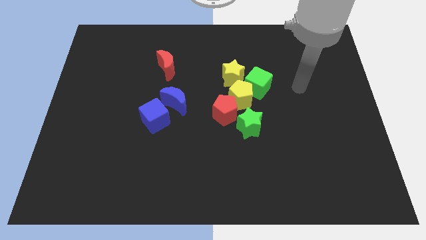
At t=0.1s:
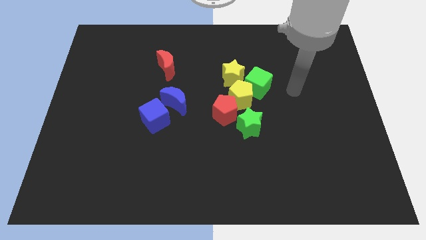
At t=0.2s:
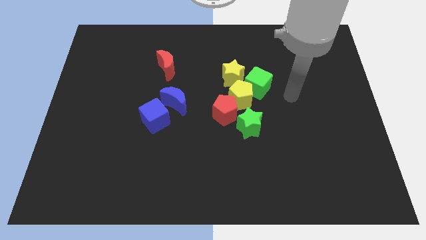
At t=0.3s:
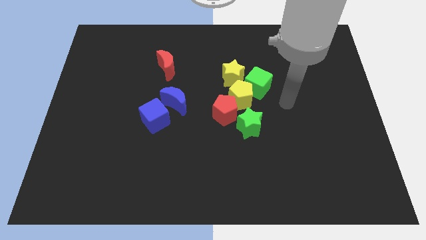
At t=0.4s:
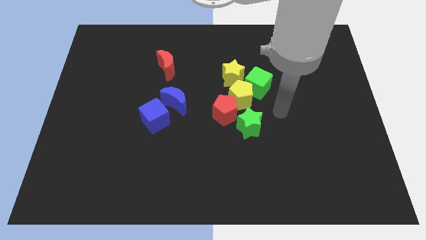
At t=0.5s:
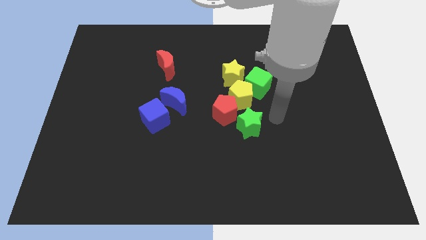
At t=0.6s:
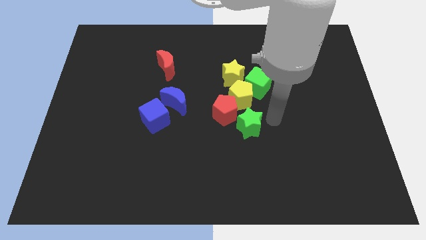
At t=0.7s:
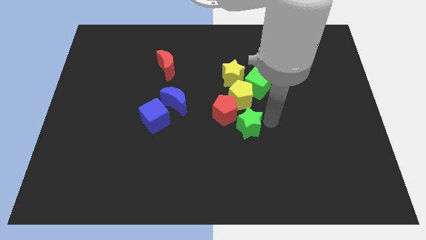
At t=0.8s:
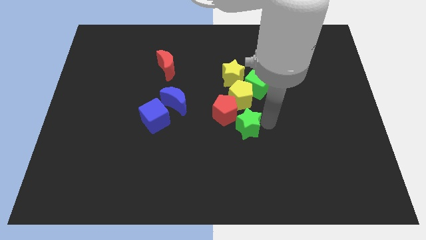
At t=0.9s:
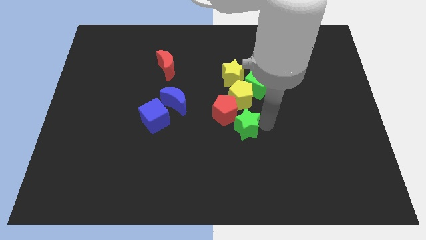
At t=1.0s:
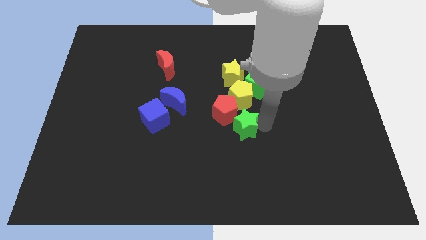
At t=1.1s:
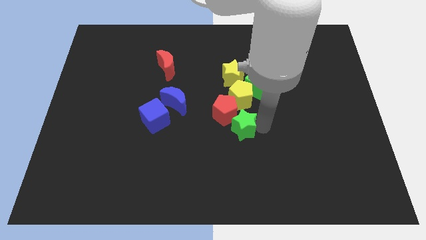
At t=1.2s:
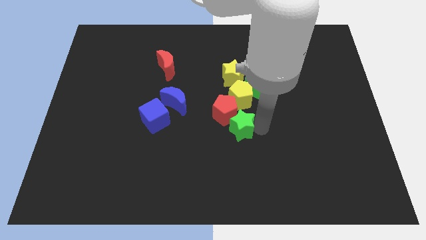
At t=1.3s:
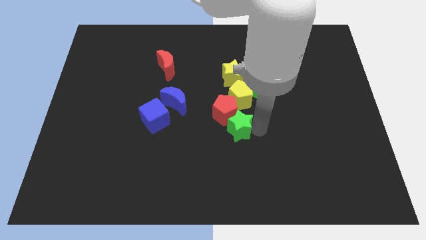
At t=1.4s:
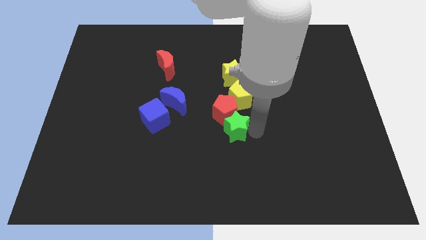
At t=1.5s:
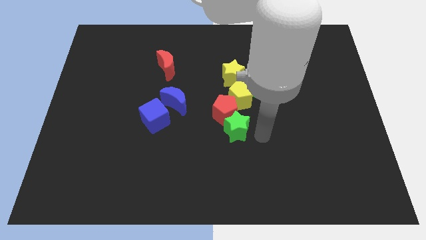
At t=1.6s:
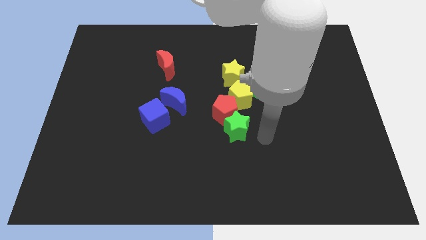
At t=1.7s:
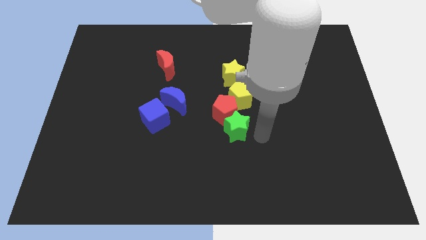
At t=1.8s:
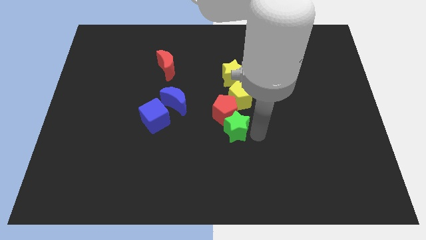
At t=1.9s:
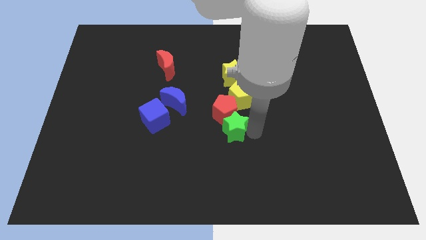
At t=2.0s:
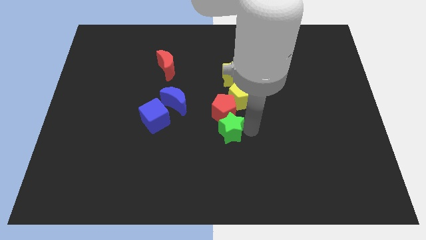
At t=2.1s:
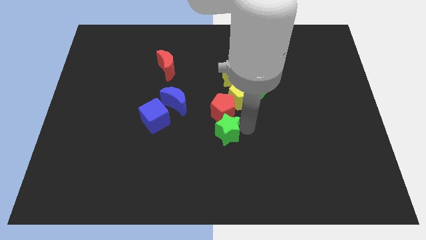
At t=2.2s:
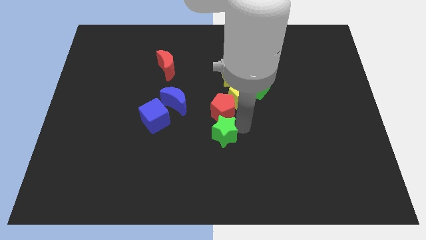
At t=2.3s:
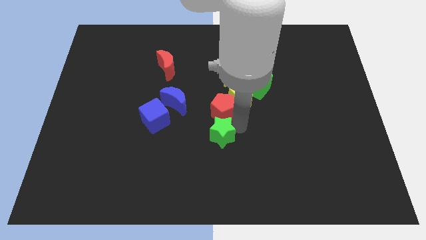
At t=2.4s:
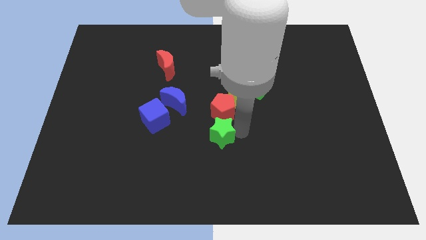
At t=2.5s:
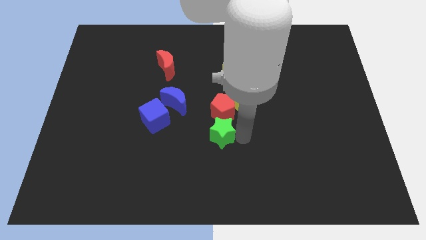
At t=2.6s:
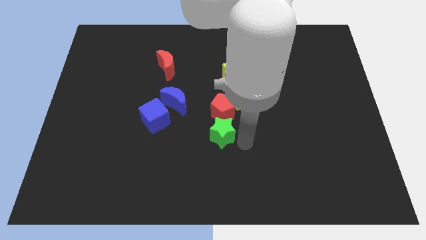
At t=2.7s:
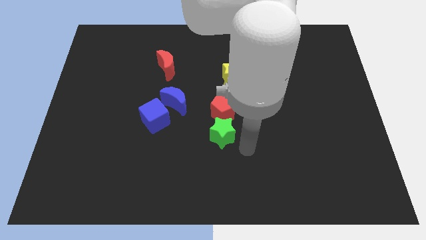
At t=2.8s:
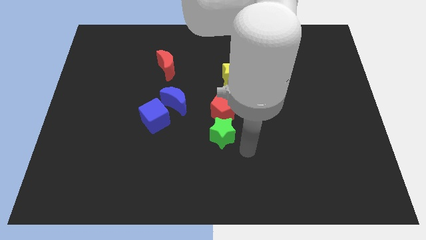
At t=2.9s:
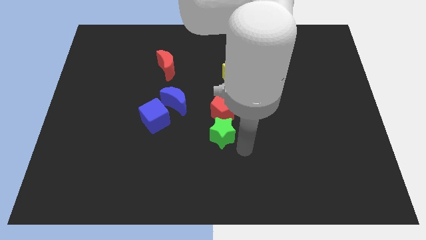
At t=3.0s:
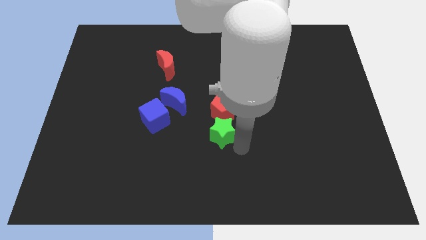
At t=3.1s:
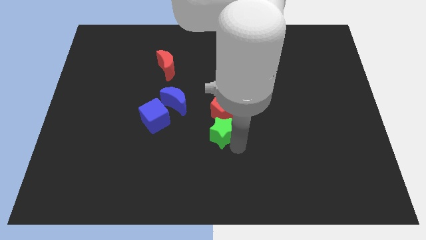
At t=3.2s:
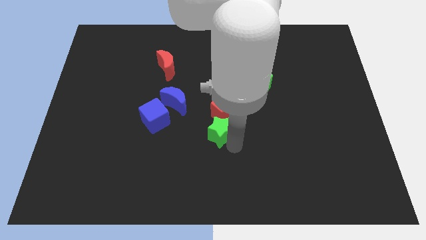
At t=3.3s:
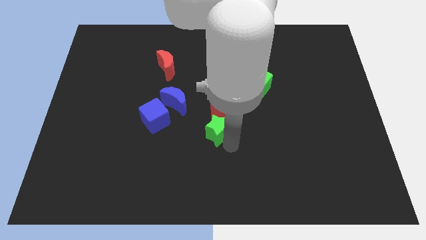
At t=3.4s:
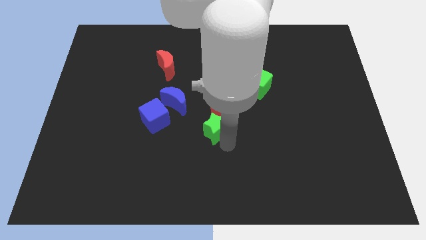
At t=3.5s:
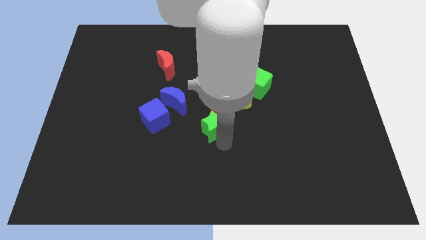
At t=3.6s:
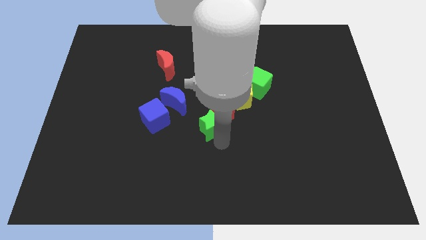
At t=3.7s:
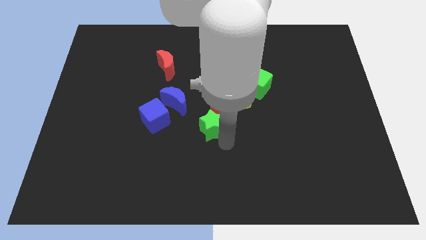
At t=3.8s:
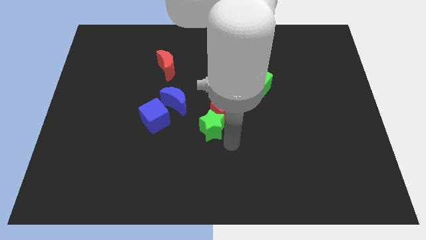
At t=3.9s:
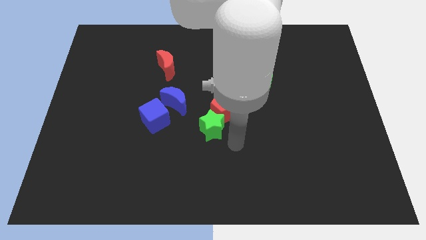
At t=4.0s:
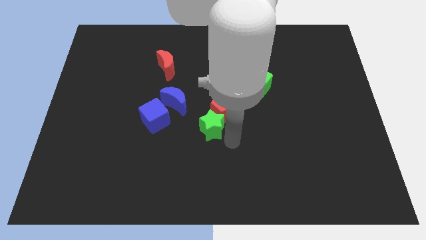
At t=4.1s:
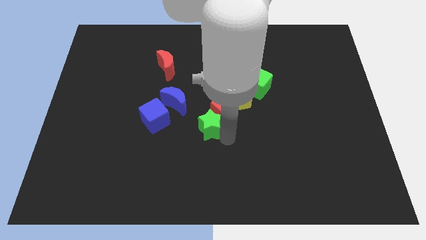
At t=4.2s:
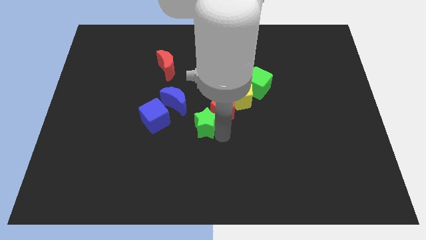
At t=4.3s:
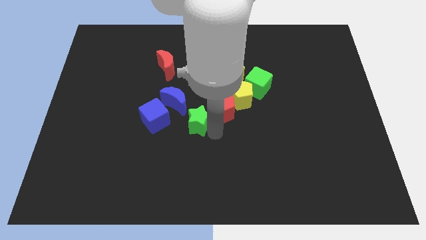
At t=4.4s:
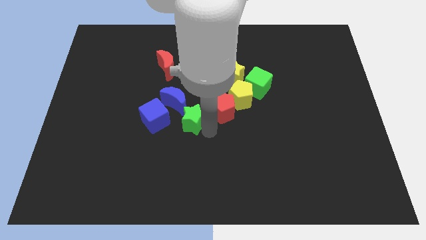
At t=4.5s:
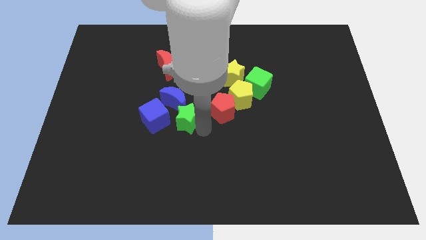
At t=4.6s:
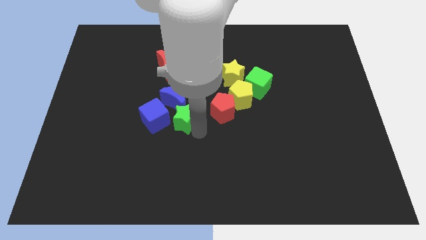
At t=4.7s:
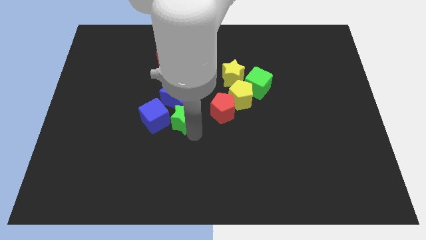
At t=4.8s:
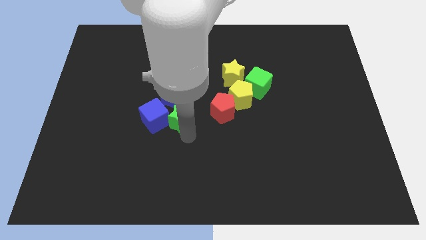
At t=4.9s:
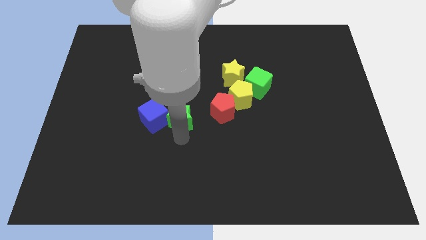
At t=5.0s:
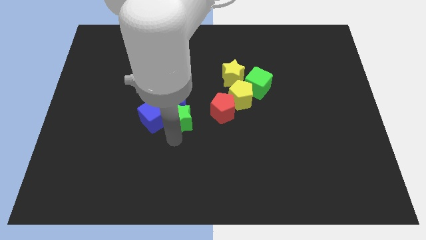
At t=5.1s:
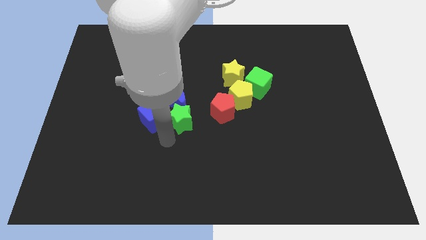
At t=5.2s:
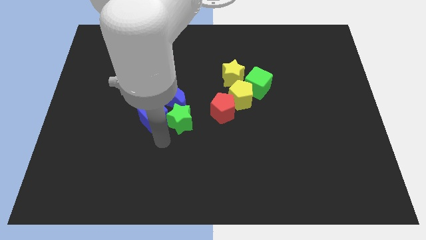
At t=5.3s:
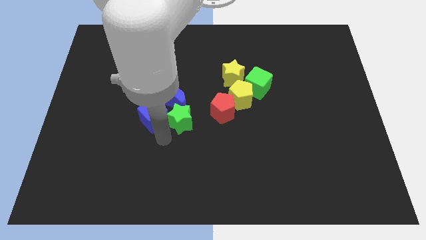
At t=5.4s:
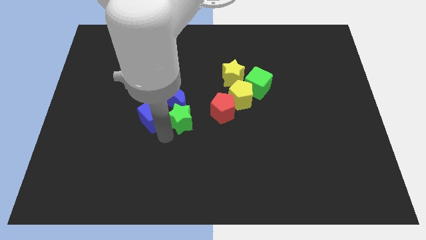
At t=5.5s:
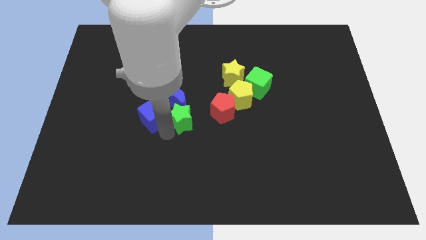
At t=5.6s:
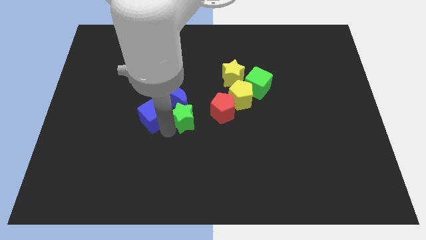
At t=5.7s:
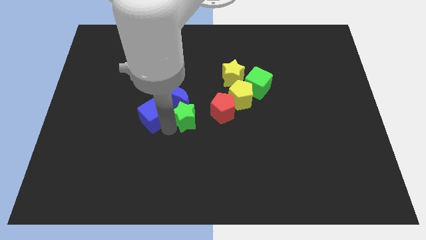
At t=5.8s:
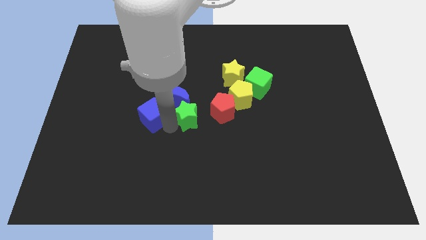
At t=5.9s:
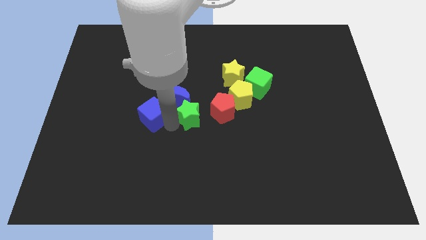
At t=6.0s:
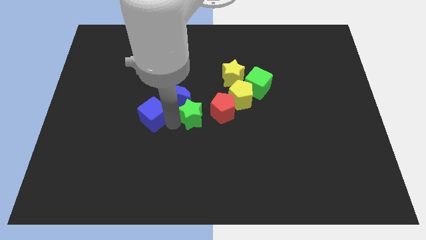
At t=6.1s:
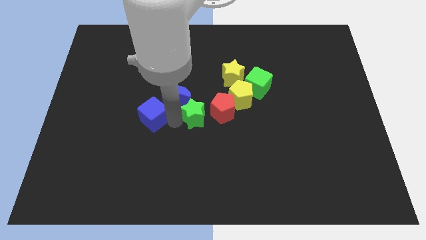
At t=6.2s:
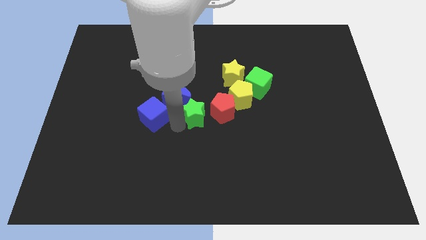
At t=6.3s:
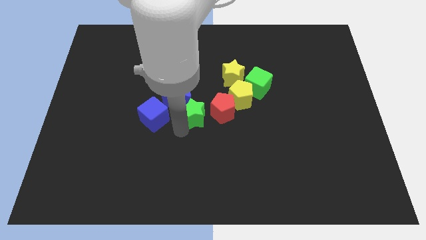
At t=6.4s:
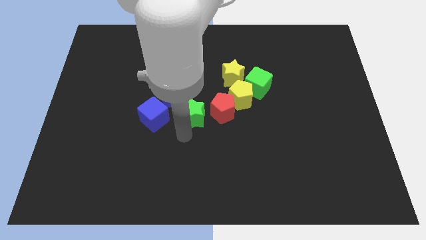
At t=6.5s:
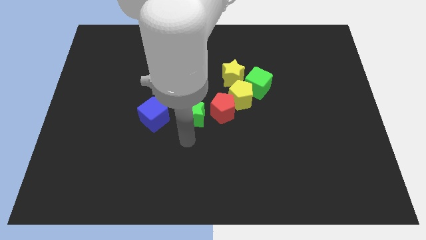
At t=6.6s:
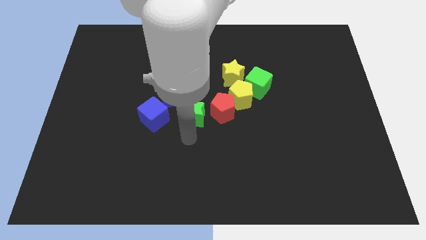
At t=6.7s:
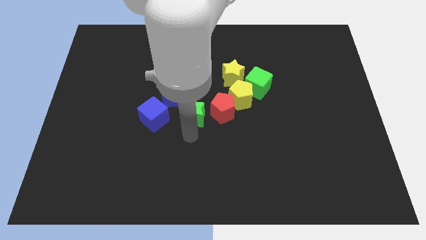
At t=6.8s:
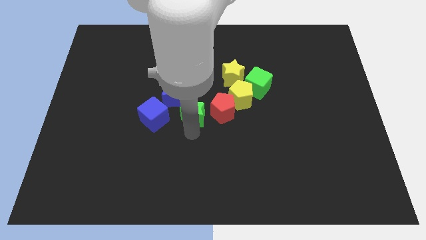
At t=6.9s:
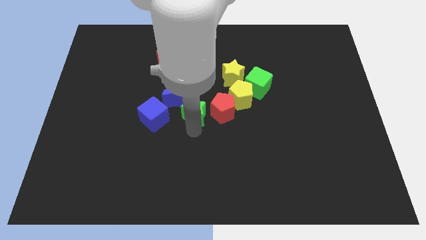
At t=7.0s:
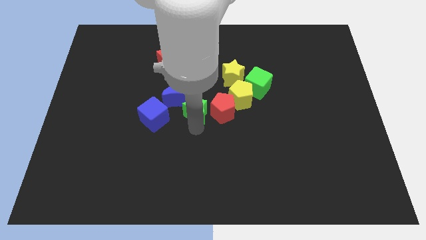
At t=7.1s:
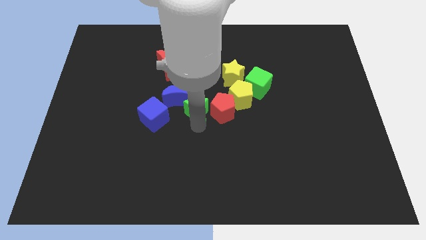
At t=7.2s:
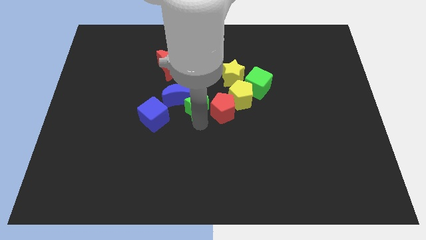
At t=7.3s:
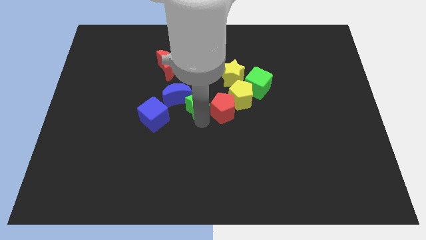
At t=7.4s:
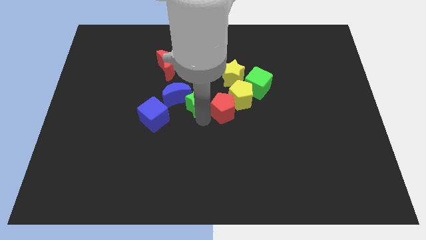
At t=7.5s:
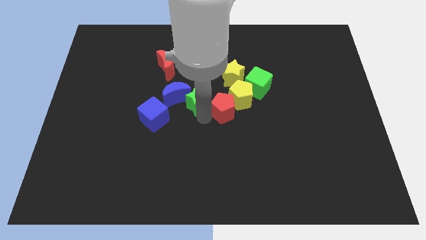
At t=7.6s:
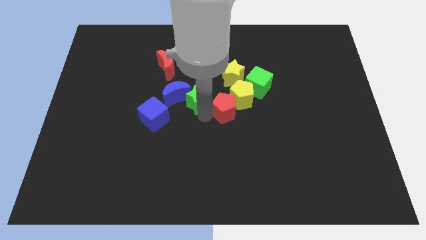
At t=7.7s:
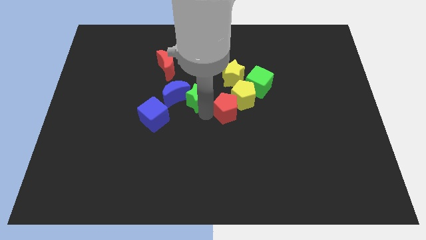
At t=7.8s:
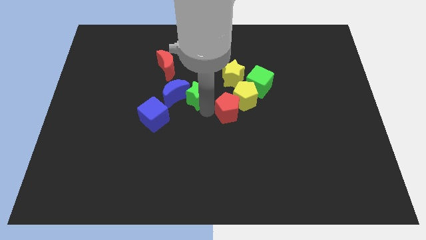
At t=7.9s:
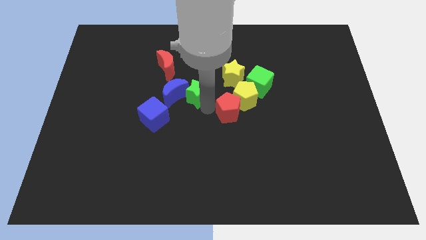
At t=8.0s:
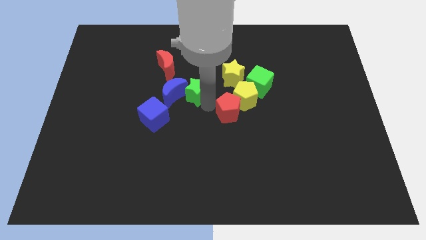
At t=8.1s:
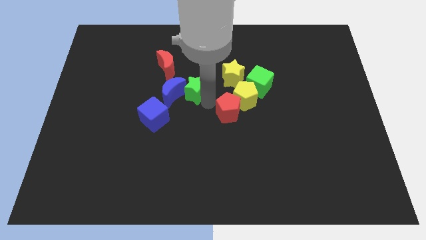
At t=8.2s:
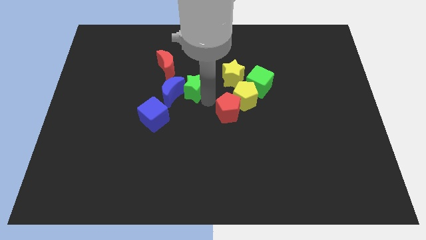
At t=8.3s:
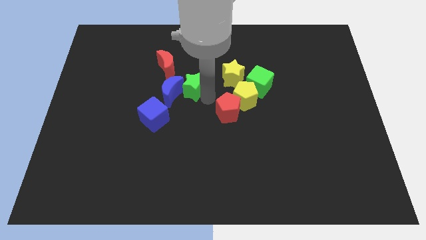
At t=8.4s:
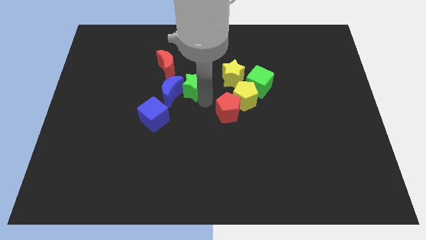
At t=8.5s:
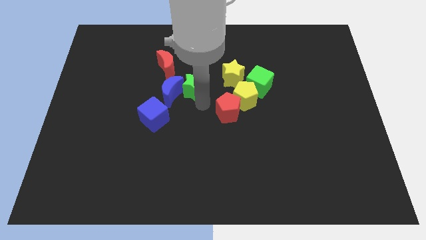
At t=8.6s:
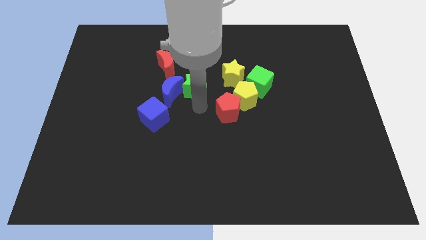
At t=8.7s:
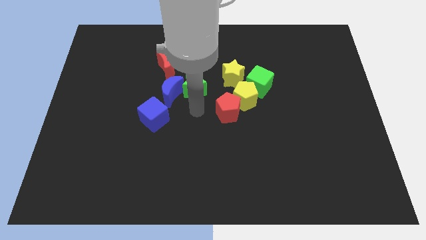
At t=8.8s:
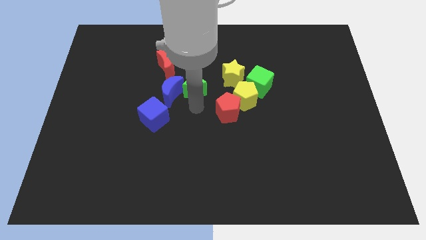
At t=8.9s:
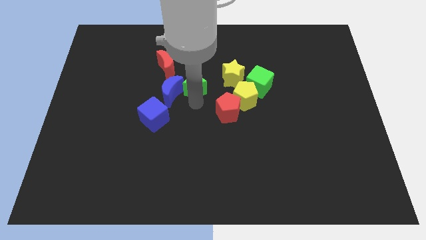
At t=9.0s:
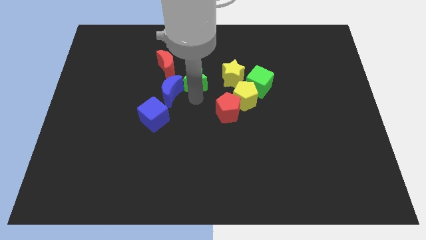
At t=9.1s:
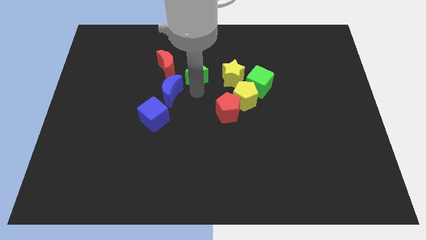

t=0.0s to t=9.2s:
slide the green star upwards and to the left
